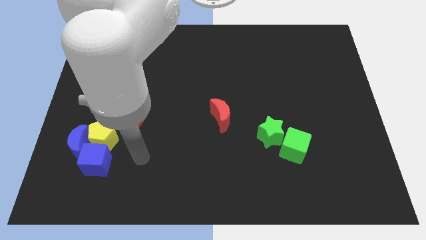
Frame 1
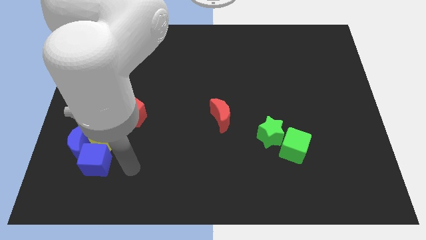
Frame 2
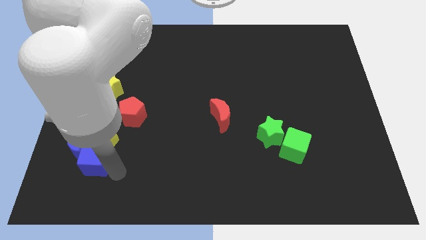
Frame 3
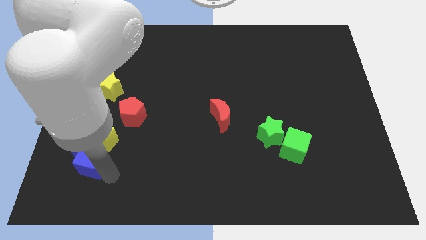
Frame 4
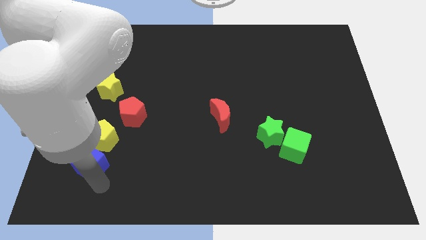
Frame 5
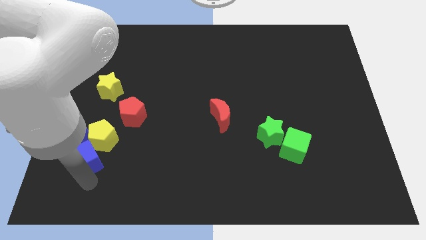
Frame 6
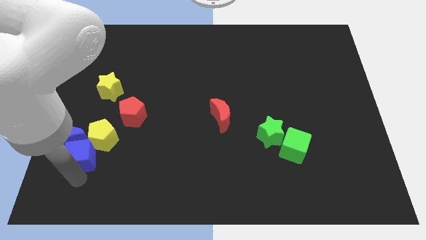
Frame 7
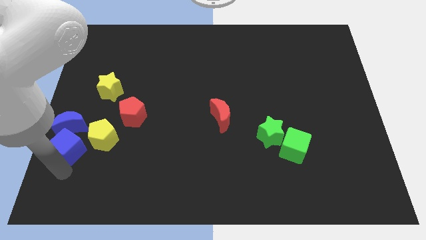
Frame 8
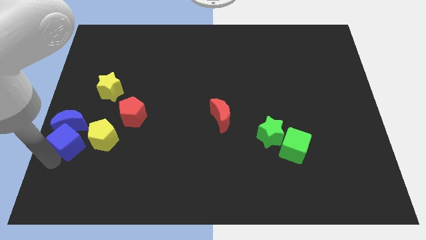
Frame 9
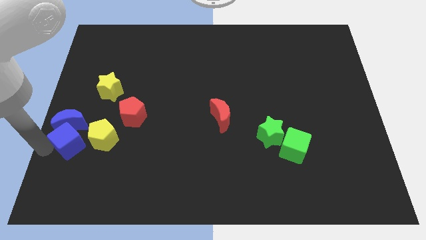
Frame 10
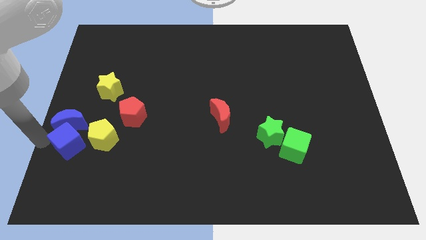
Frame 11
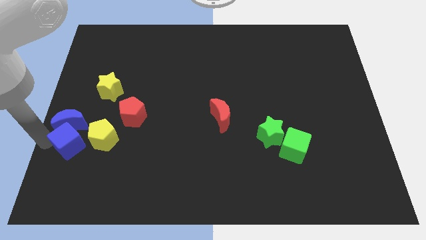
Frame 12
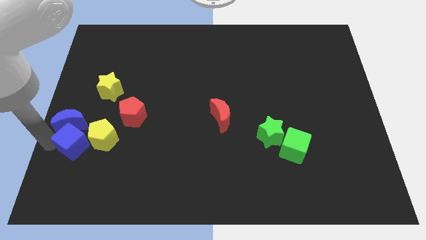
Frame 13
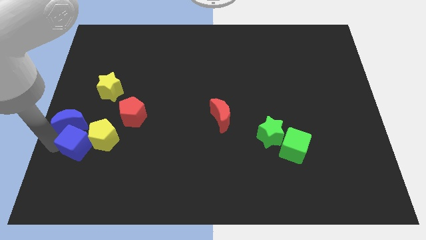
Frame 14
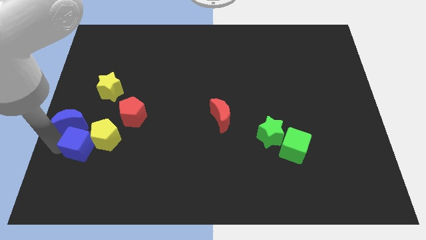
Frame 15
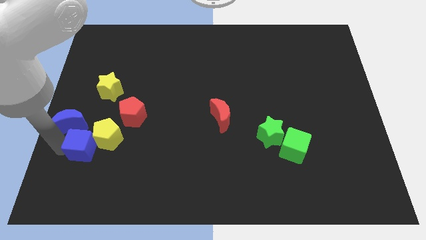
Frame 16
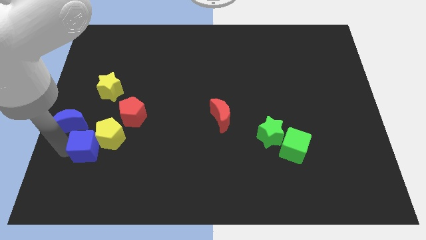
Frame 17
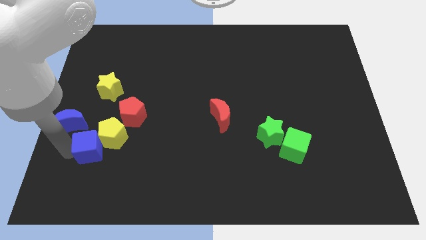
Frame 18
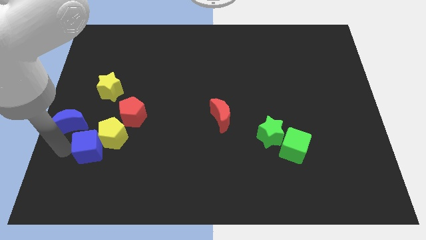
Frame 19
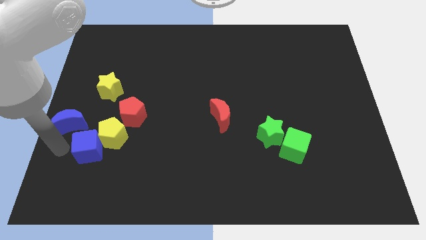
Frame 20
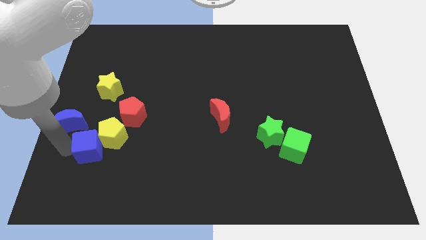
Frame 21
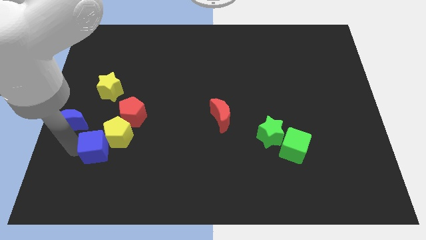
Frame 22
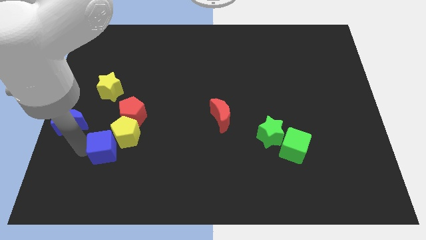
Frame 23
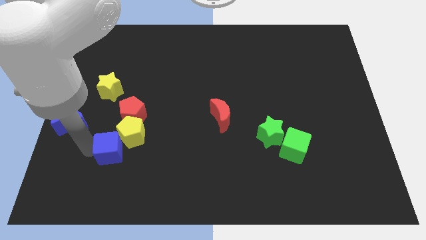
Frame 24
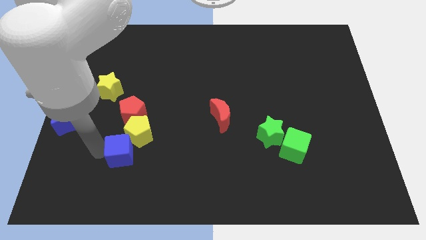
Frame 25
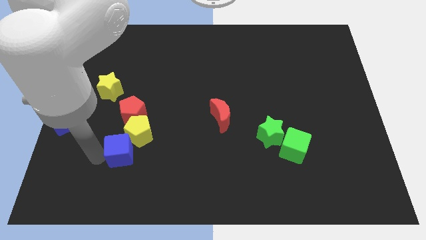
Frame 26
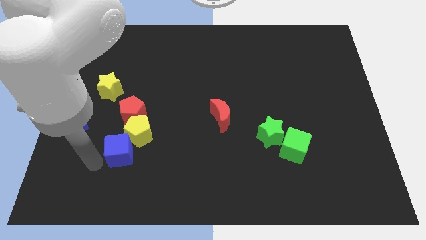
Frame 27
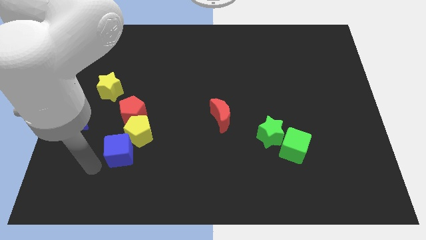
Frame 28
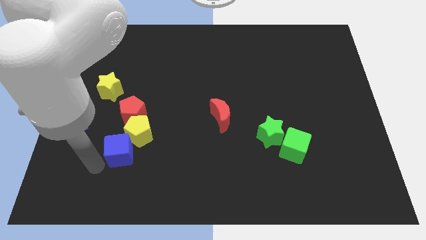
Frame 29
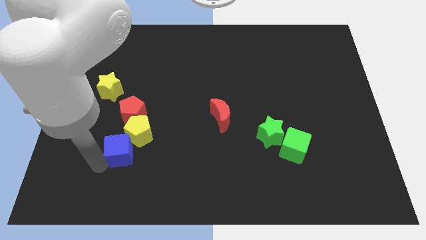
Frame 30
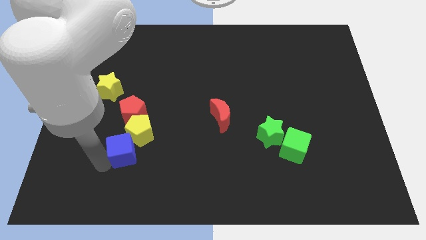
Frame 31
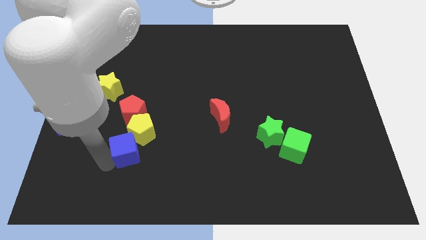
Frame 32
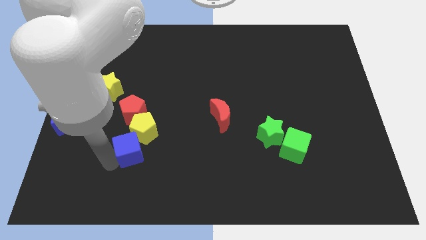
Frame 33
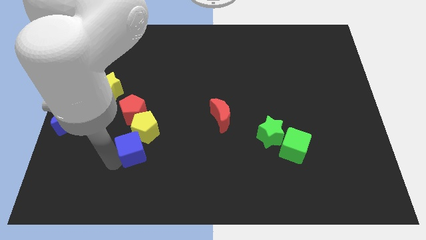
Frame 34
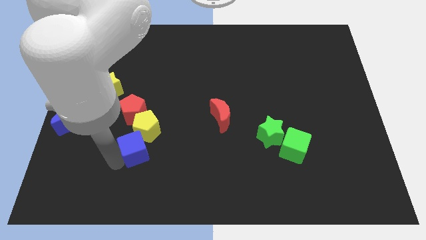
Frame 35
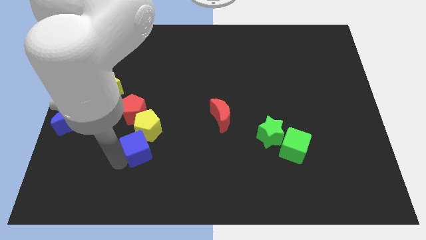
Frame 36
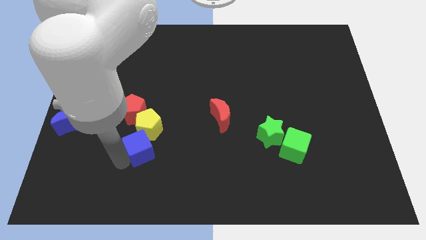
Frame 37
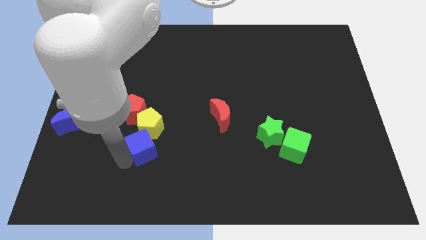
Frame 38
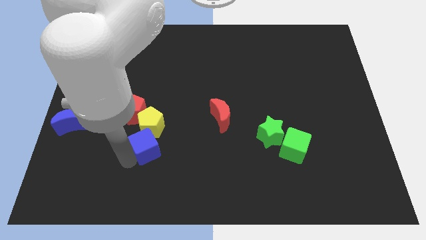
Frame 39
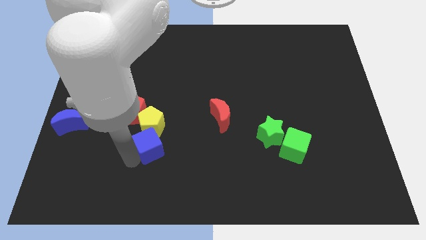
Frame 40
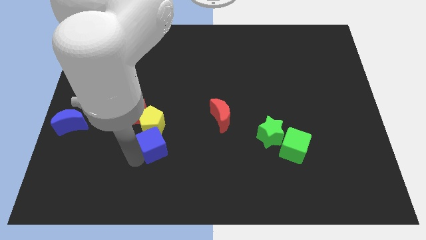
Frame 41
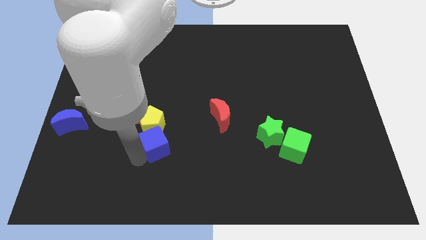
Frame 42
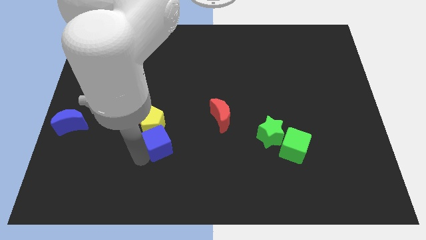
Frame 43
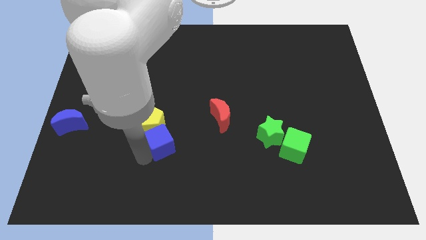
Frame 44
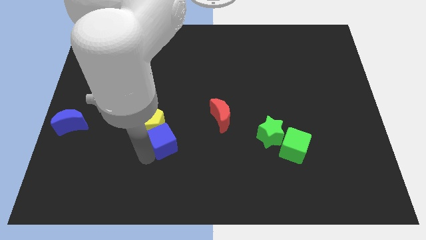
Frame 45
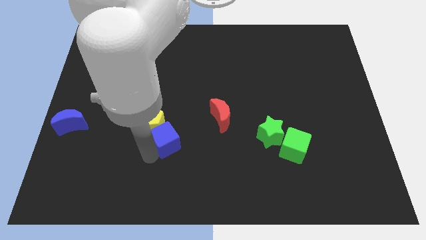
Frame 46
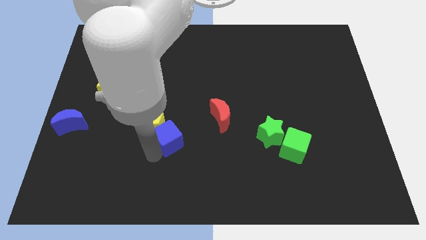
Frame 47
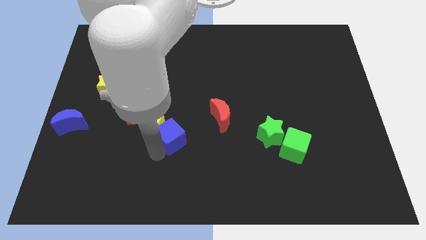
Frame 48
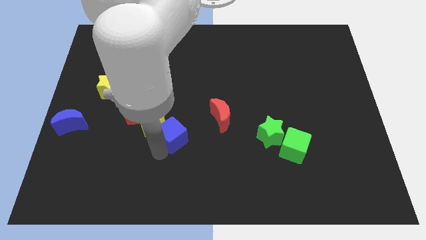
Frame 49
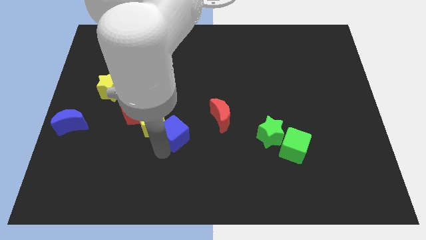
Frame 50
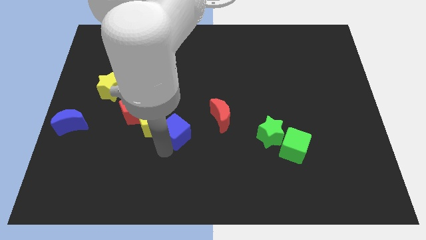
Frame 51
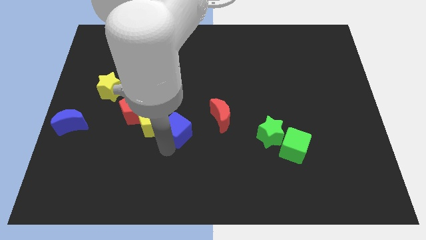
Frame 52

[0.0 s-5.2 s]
move the blue cube to the center of the board

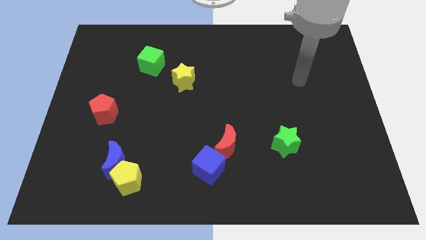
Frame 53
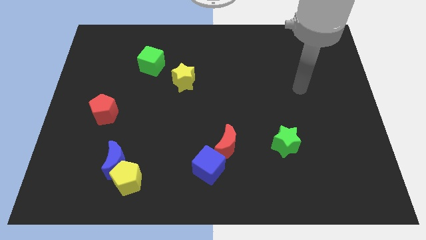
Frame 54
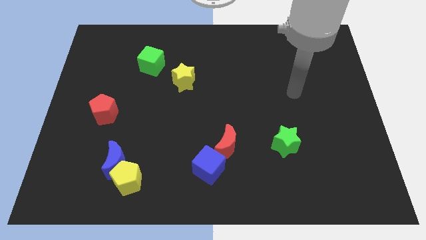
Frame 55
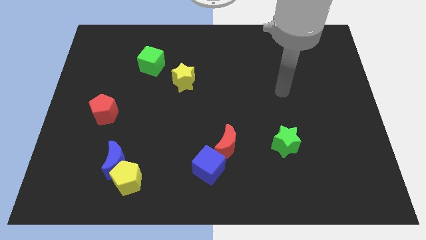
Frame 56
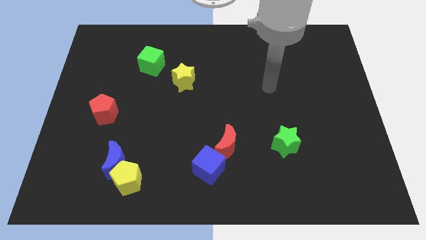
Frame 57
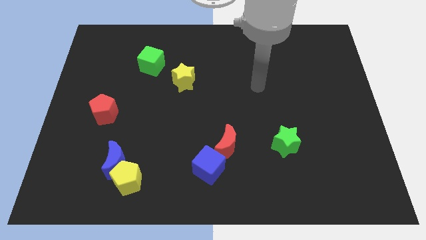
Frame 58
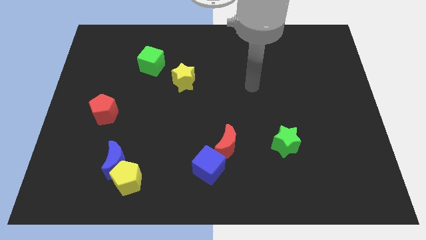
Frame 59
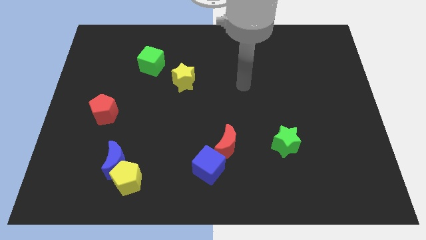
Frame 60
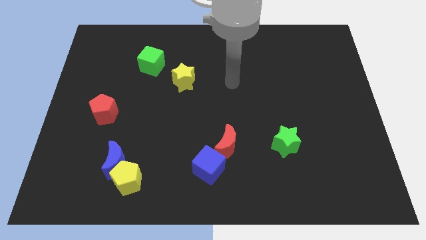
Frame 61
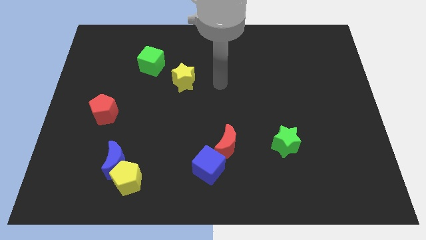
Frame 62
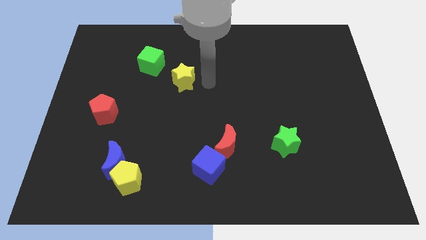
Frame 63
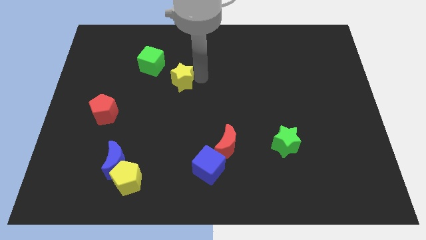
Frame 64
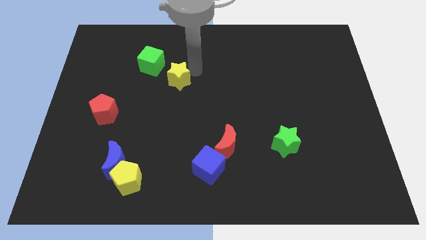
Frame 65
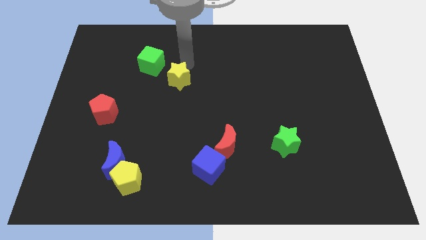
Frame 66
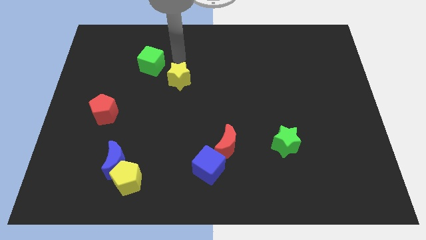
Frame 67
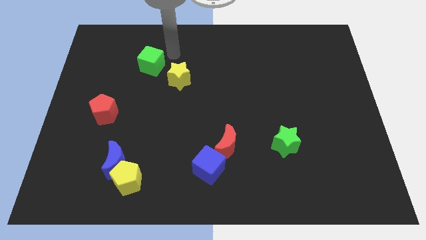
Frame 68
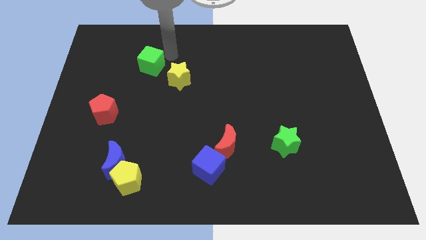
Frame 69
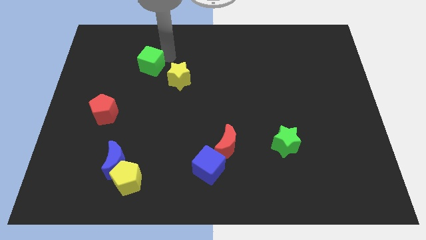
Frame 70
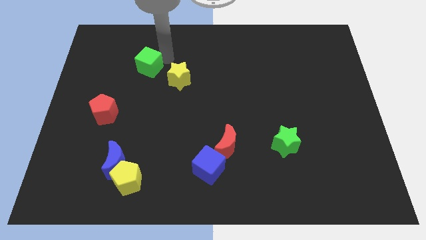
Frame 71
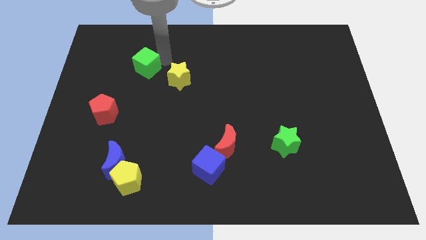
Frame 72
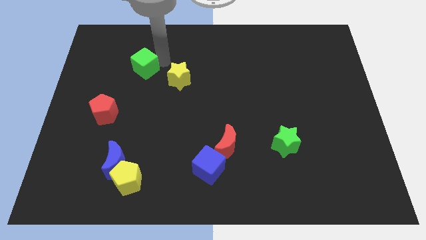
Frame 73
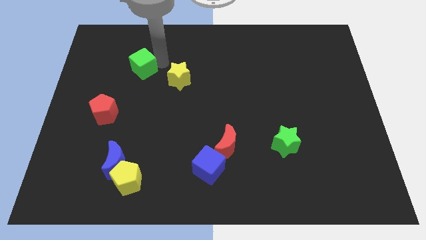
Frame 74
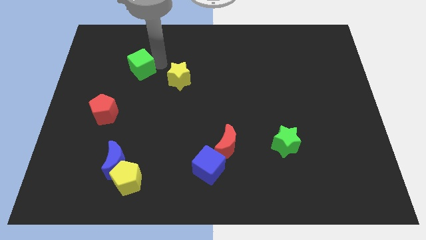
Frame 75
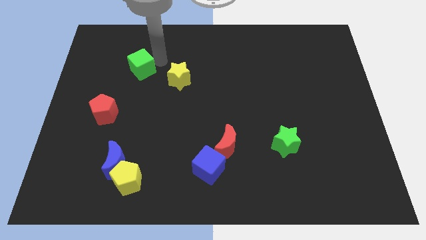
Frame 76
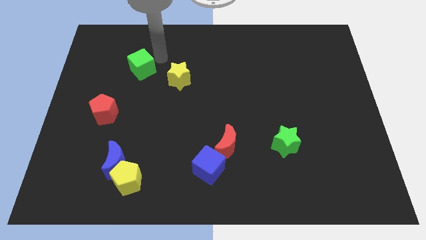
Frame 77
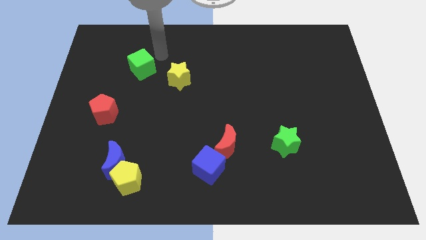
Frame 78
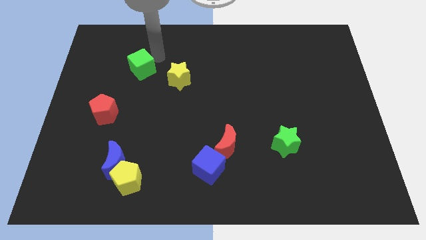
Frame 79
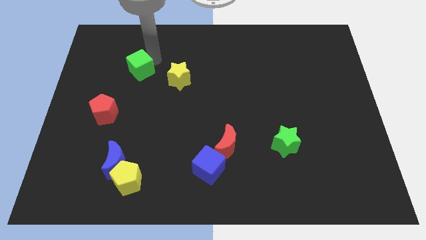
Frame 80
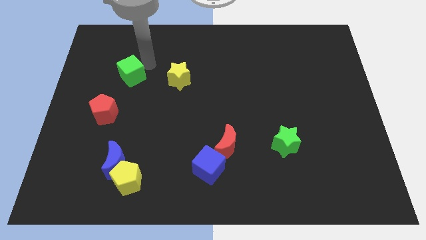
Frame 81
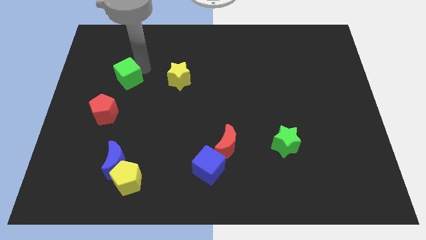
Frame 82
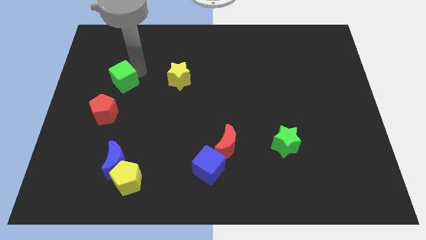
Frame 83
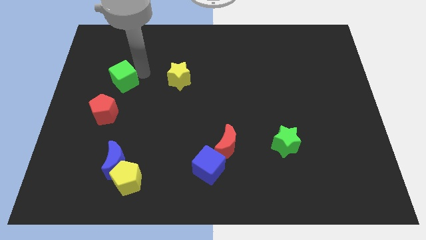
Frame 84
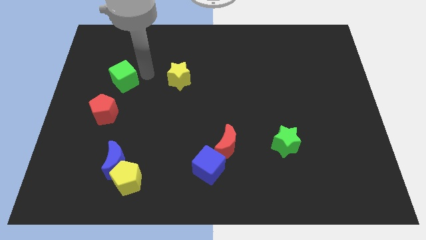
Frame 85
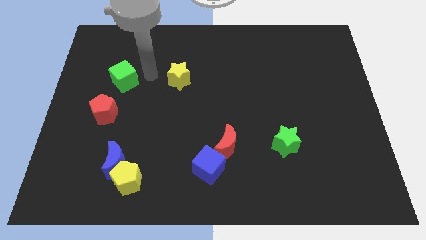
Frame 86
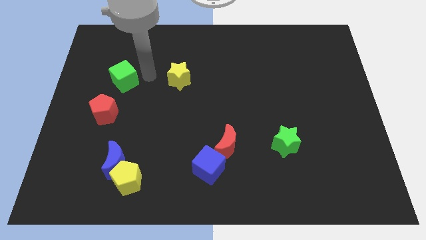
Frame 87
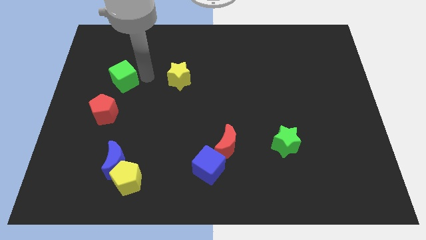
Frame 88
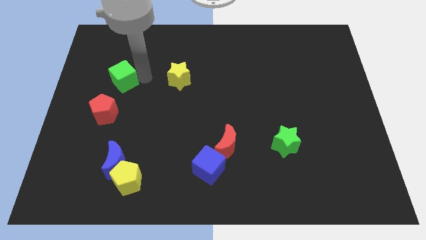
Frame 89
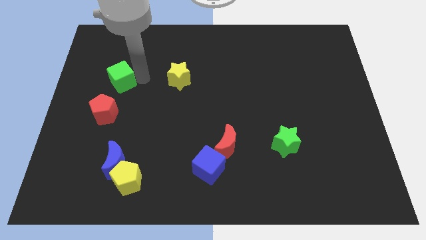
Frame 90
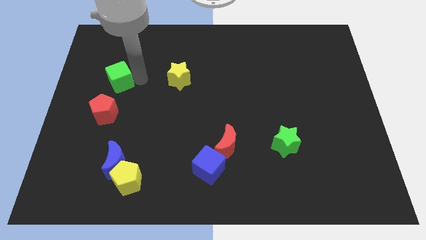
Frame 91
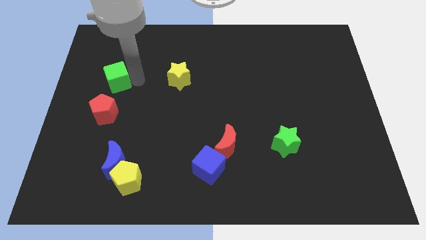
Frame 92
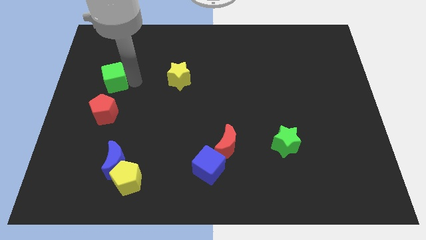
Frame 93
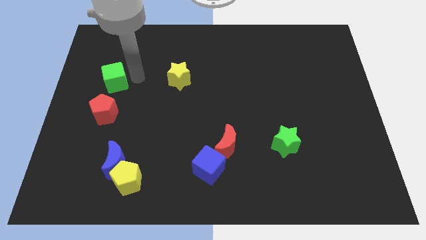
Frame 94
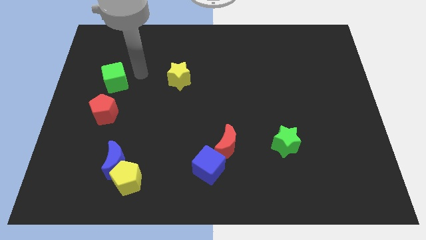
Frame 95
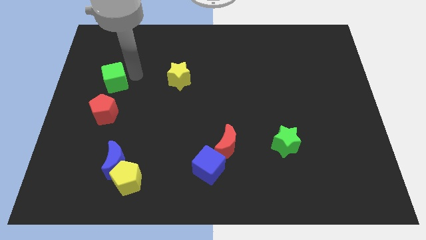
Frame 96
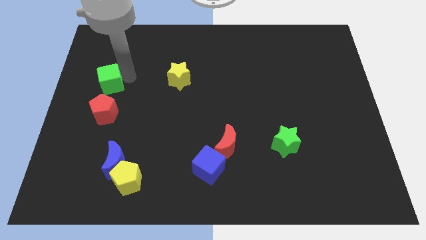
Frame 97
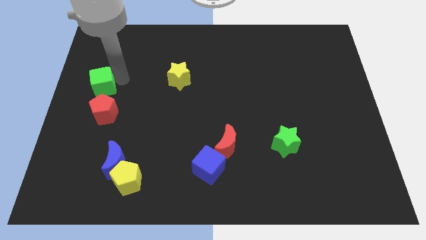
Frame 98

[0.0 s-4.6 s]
push the green cube to the left side
